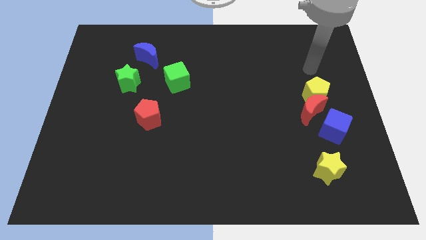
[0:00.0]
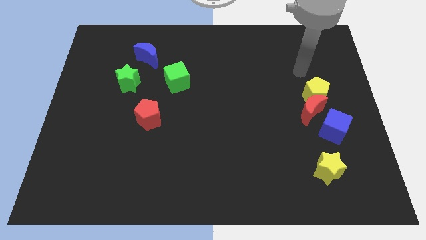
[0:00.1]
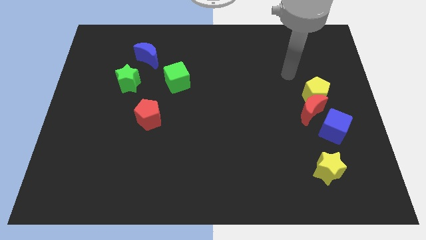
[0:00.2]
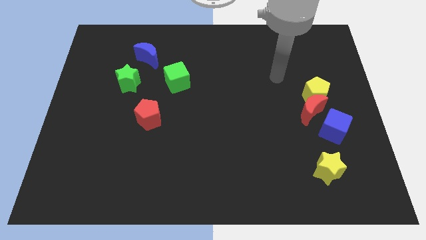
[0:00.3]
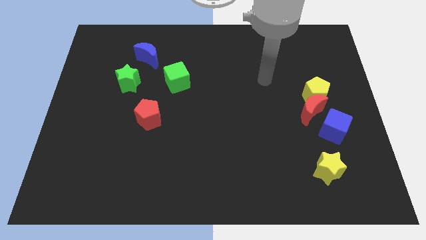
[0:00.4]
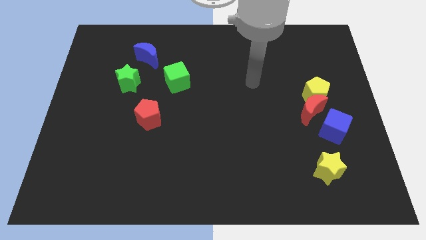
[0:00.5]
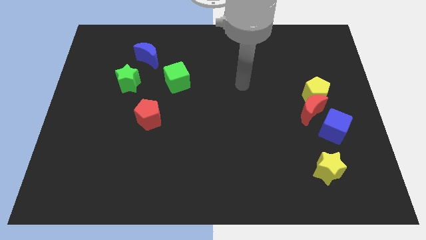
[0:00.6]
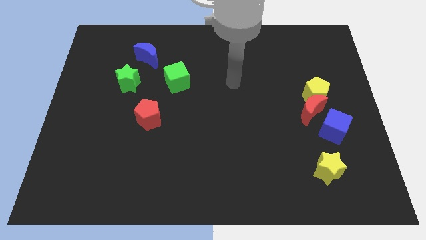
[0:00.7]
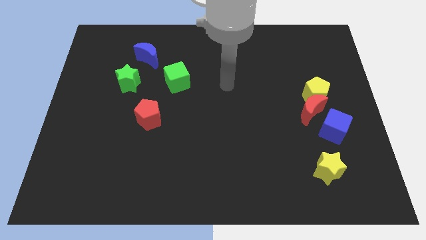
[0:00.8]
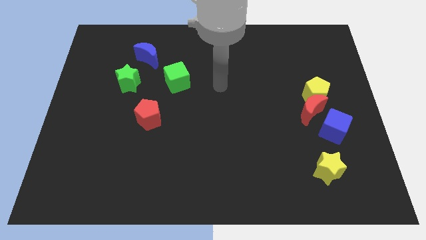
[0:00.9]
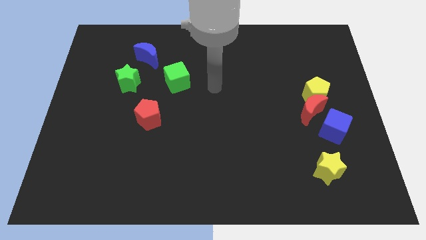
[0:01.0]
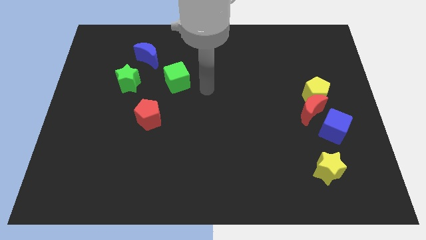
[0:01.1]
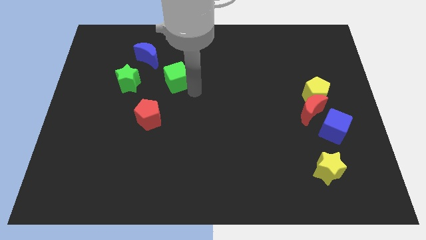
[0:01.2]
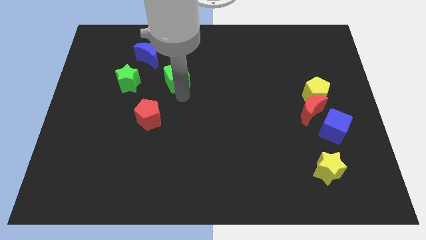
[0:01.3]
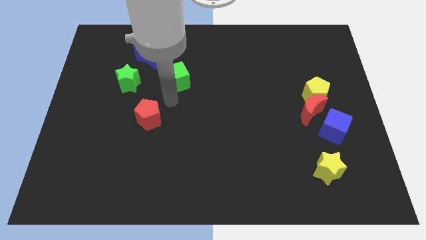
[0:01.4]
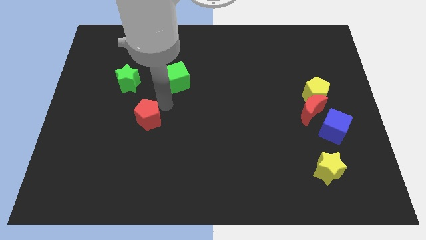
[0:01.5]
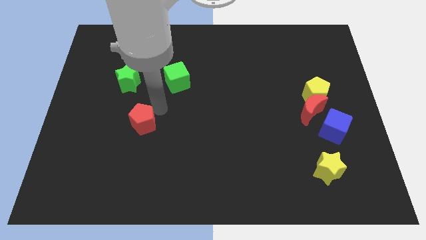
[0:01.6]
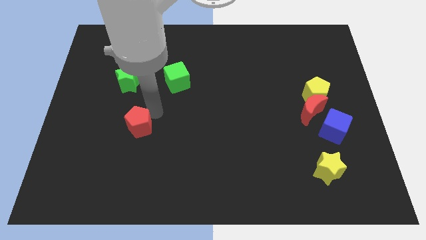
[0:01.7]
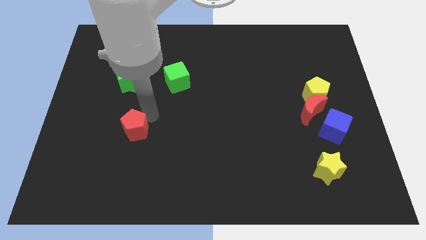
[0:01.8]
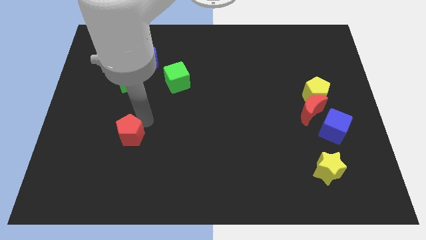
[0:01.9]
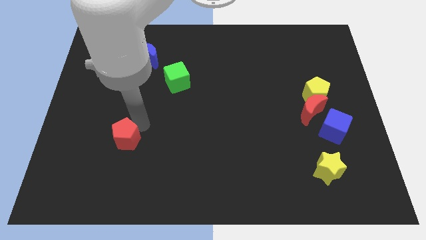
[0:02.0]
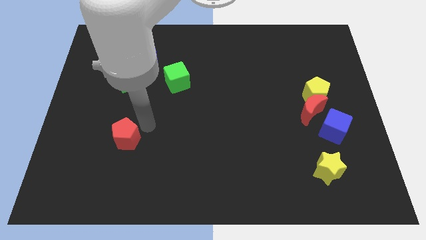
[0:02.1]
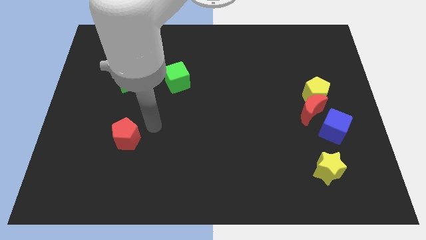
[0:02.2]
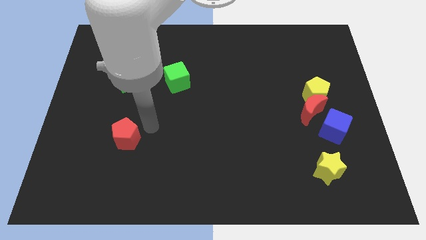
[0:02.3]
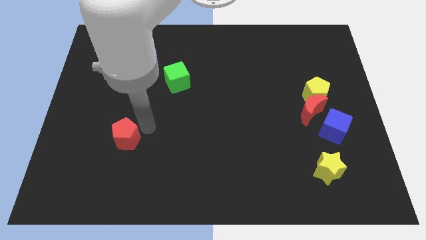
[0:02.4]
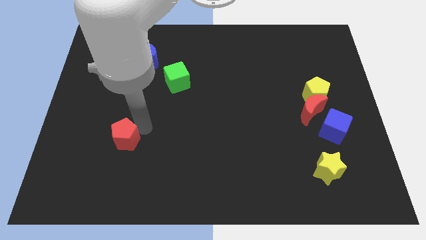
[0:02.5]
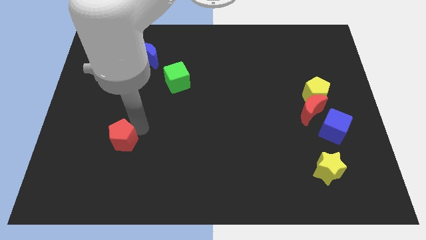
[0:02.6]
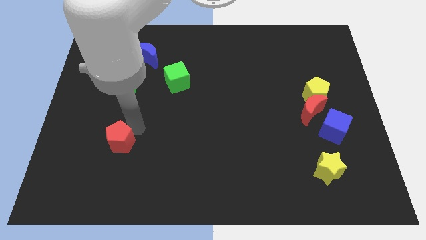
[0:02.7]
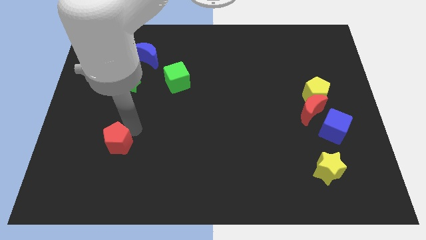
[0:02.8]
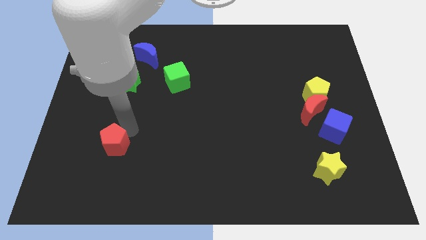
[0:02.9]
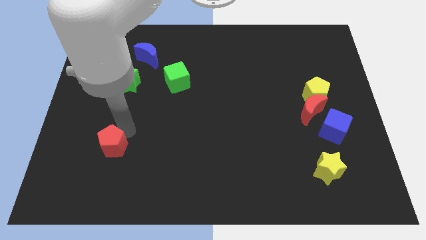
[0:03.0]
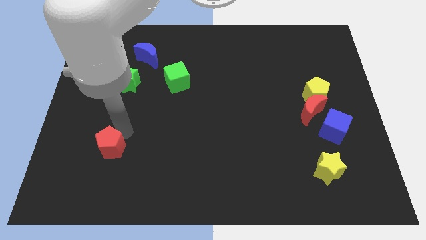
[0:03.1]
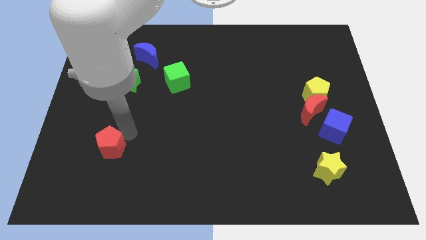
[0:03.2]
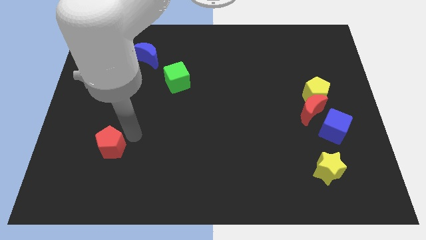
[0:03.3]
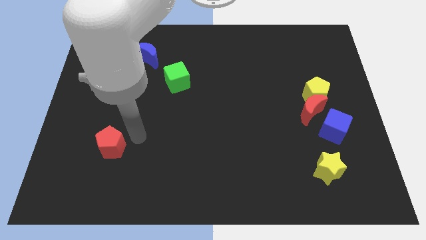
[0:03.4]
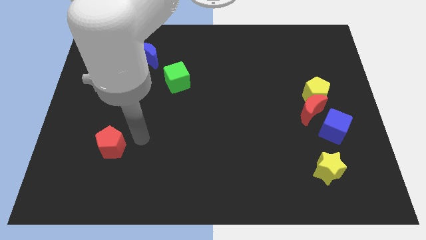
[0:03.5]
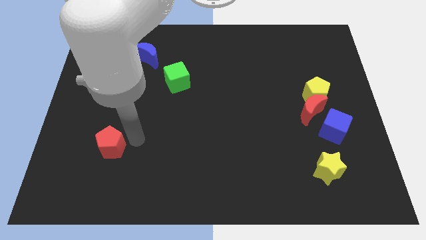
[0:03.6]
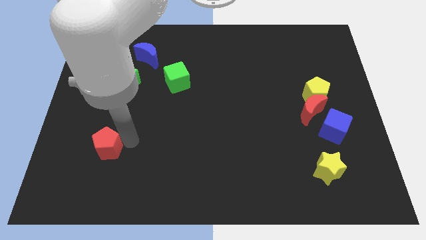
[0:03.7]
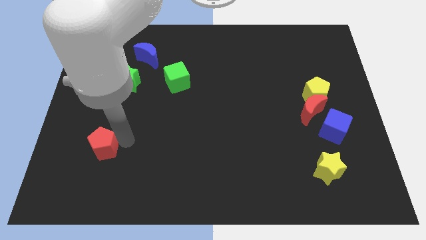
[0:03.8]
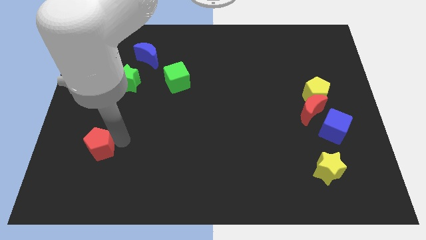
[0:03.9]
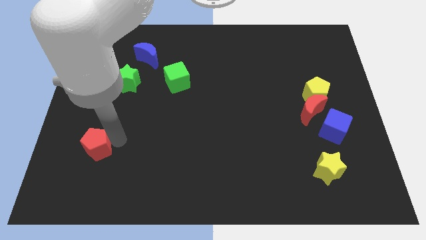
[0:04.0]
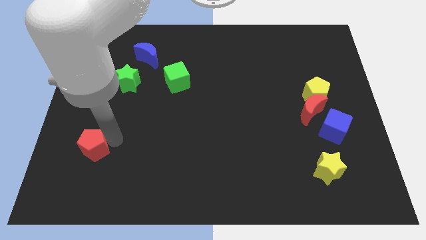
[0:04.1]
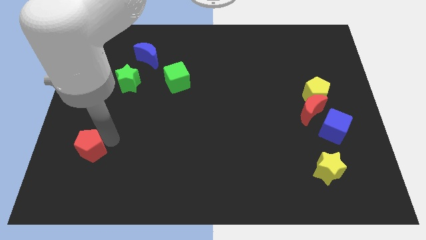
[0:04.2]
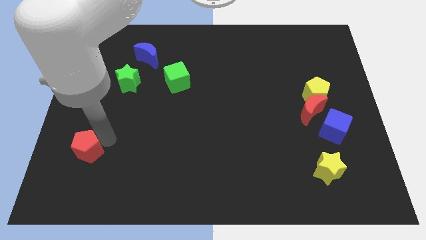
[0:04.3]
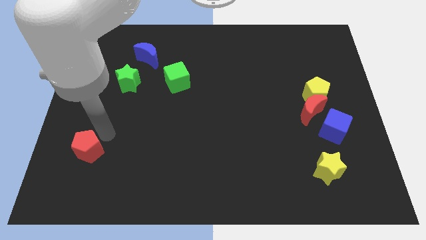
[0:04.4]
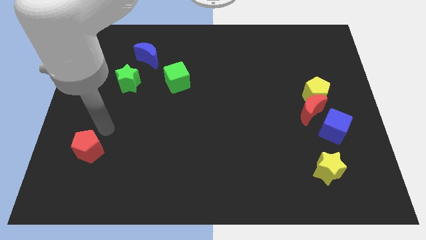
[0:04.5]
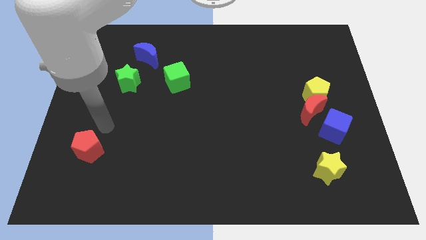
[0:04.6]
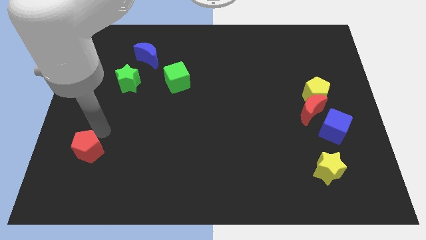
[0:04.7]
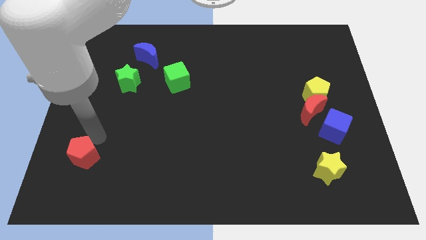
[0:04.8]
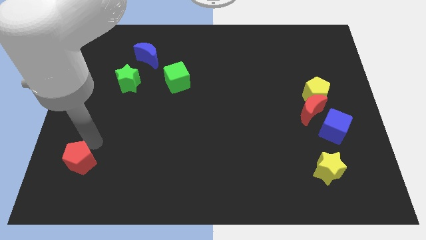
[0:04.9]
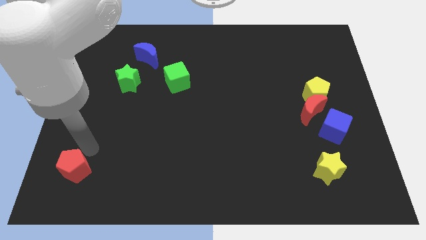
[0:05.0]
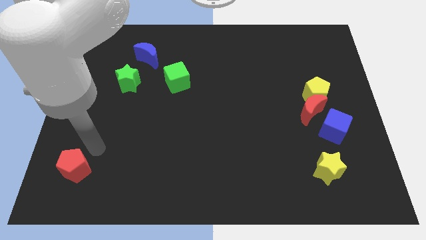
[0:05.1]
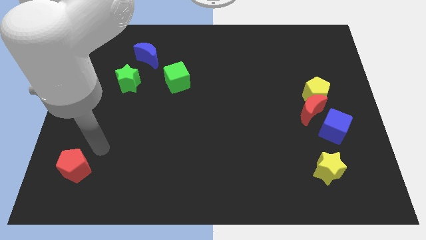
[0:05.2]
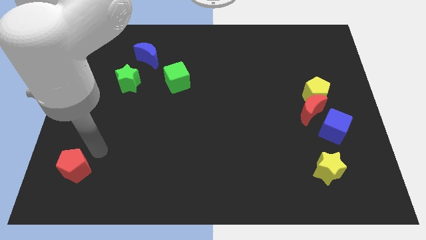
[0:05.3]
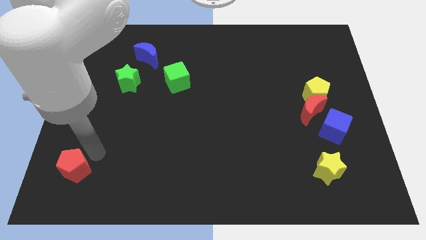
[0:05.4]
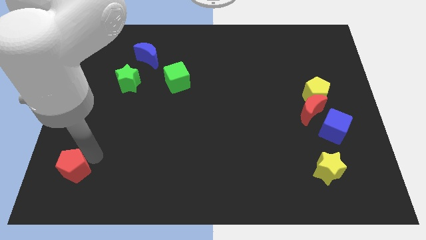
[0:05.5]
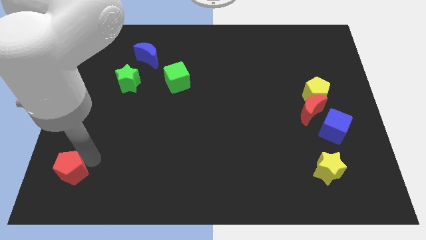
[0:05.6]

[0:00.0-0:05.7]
push the red pentagon to the bottom left
